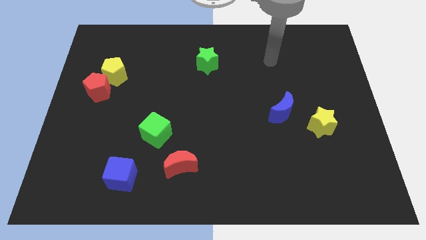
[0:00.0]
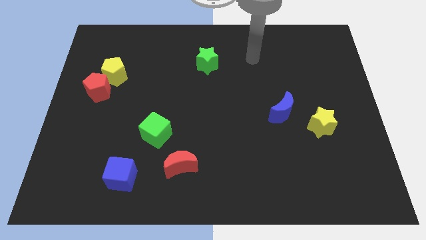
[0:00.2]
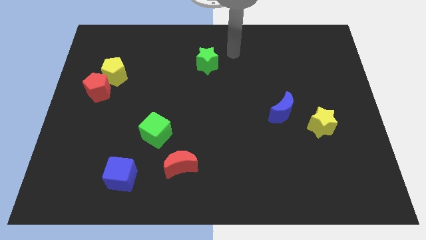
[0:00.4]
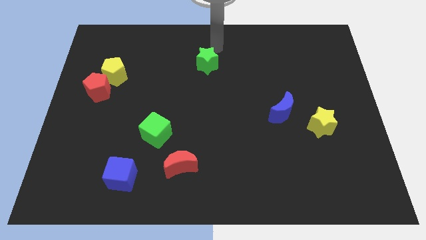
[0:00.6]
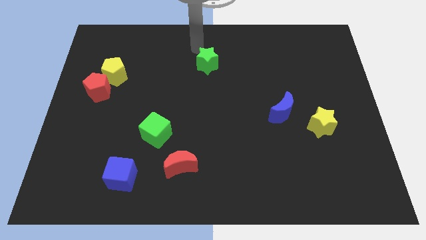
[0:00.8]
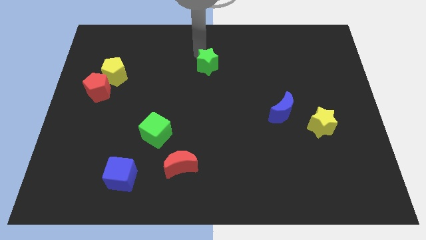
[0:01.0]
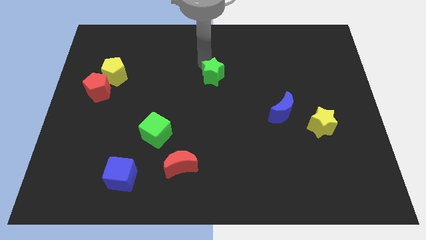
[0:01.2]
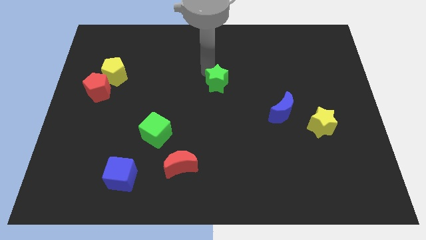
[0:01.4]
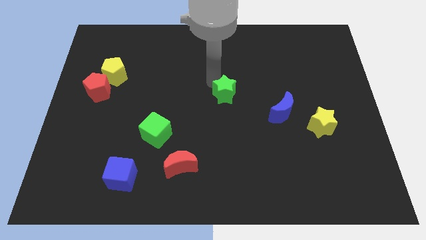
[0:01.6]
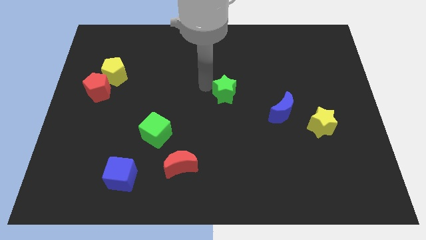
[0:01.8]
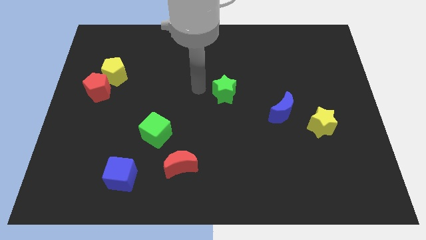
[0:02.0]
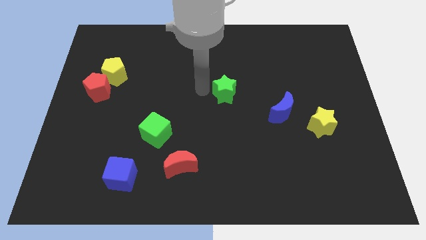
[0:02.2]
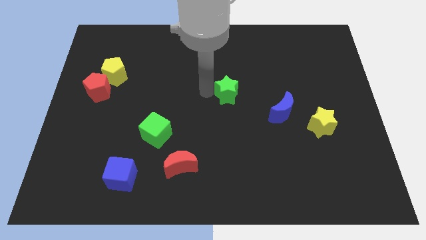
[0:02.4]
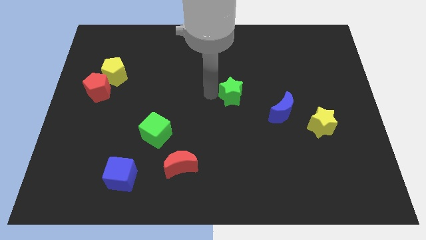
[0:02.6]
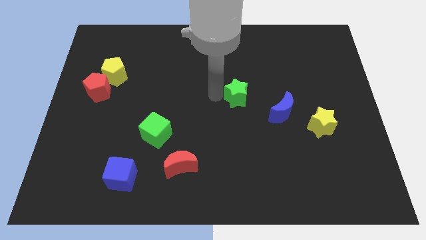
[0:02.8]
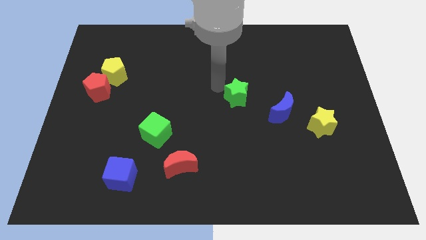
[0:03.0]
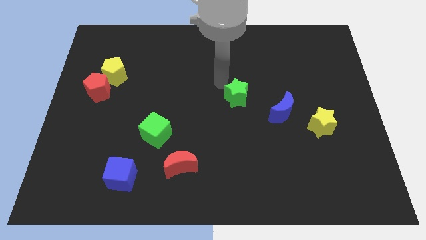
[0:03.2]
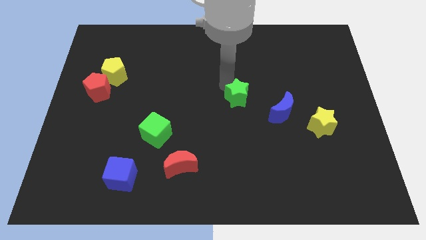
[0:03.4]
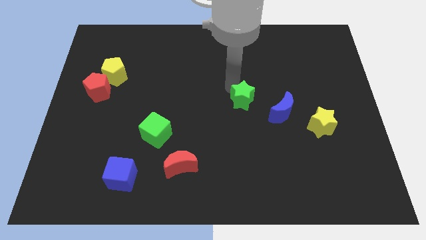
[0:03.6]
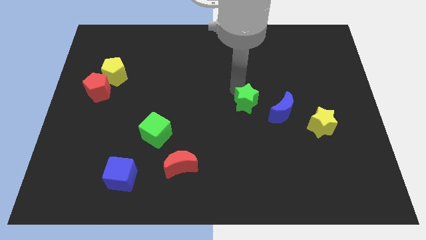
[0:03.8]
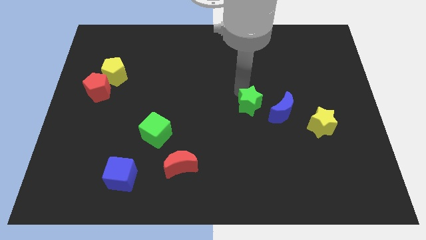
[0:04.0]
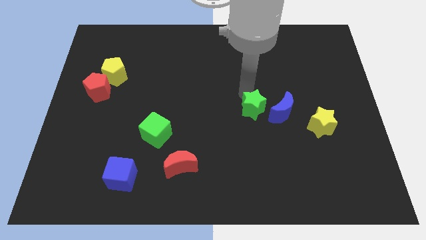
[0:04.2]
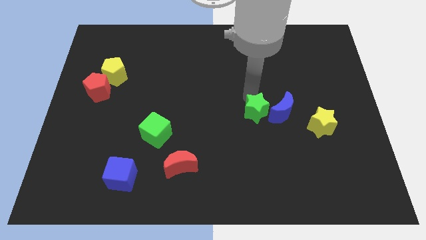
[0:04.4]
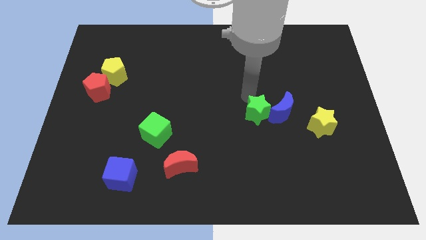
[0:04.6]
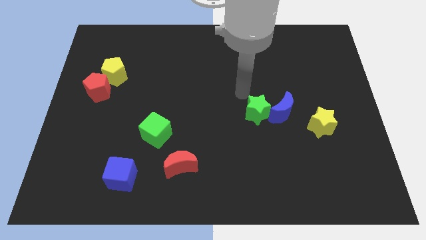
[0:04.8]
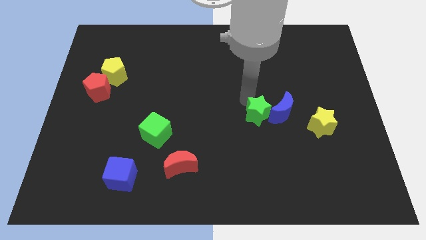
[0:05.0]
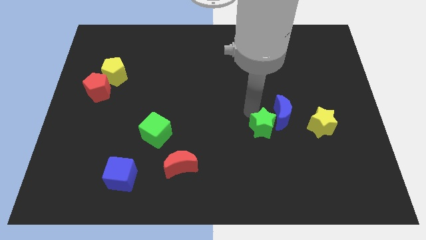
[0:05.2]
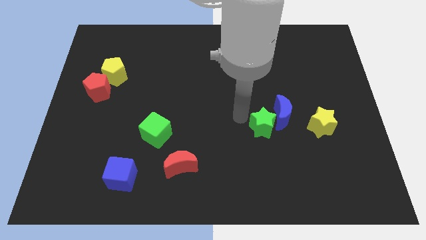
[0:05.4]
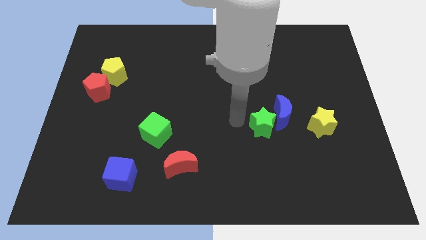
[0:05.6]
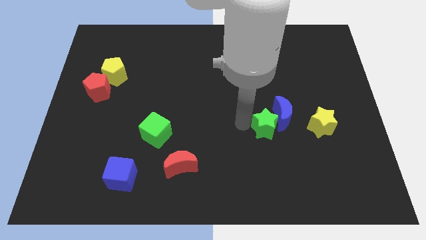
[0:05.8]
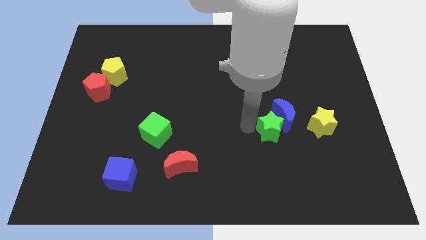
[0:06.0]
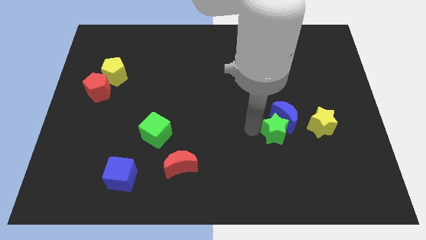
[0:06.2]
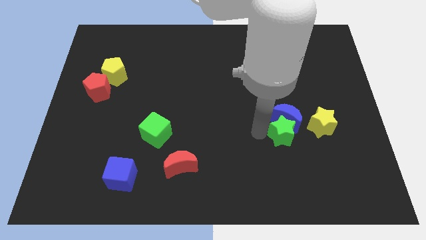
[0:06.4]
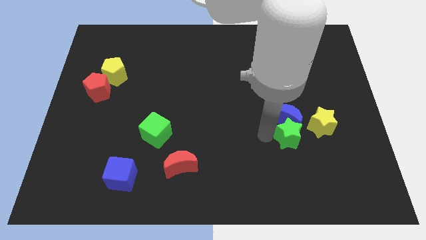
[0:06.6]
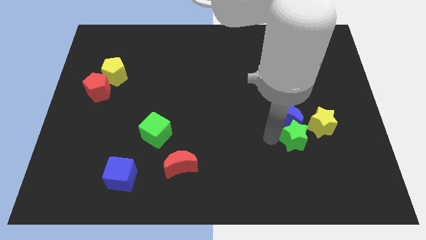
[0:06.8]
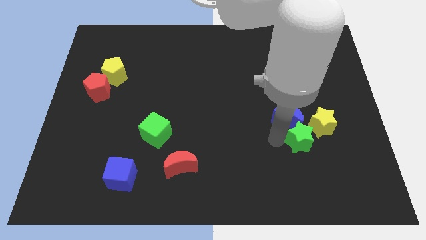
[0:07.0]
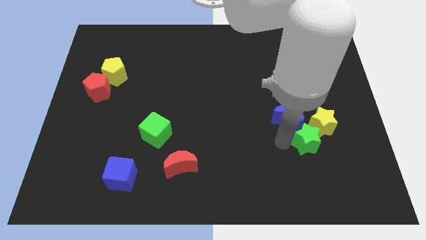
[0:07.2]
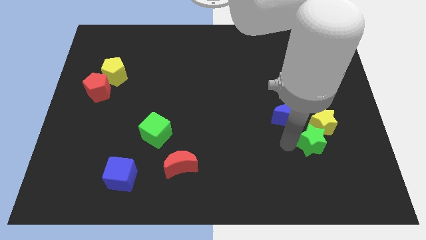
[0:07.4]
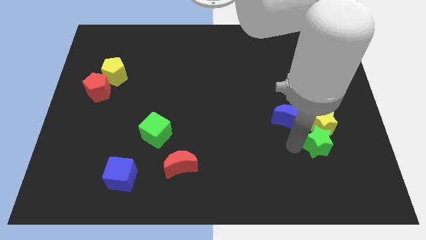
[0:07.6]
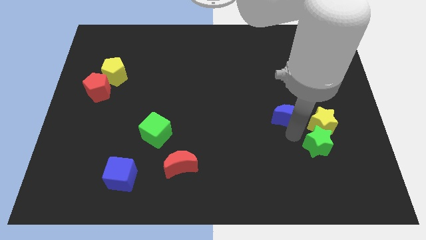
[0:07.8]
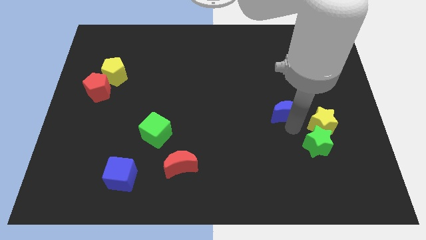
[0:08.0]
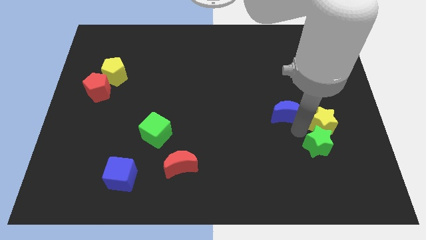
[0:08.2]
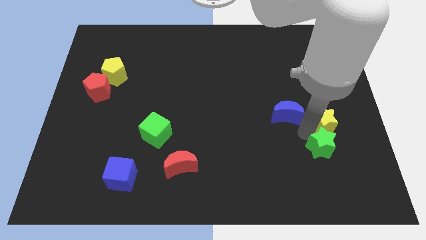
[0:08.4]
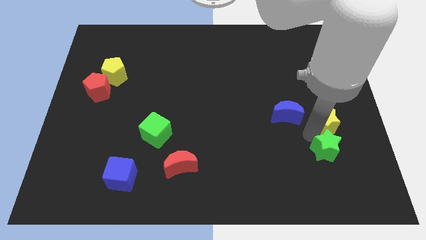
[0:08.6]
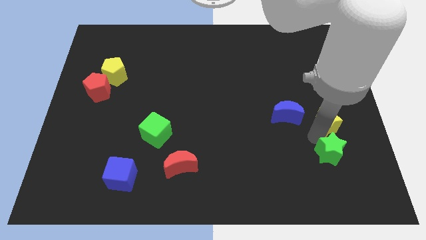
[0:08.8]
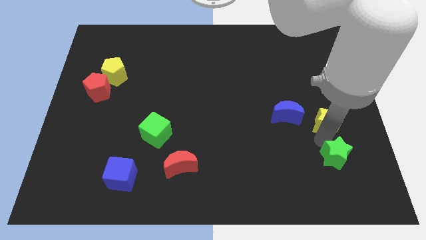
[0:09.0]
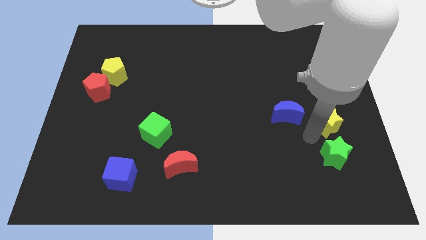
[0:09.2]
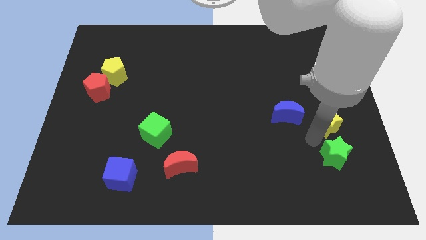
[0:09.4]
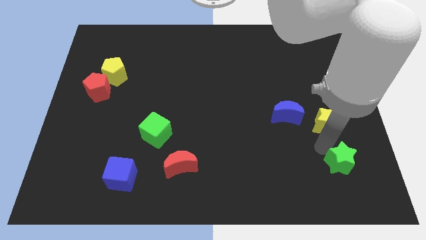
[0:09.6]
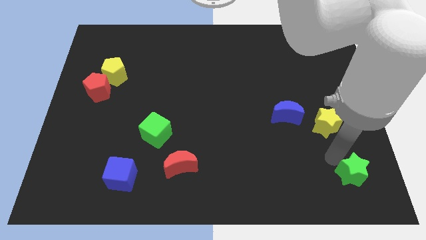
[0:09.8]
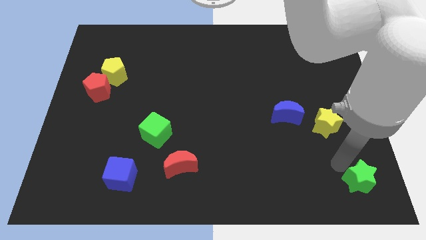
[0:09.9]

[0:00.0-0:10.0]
push the green star to the lower right corner
